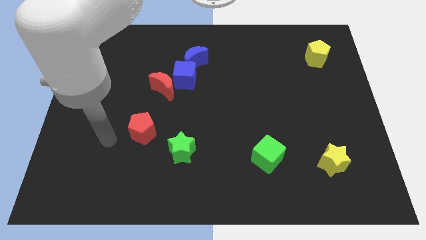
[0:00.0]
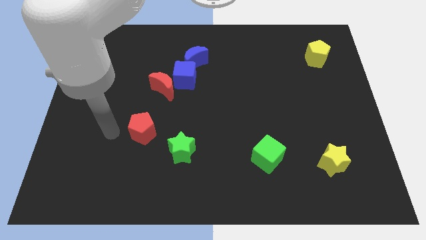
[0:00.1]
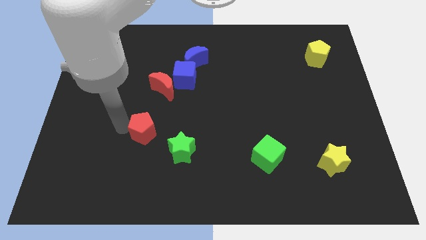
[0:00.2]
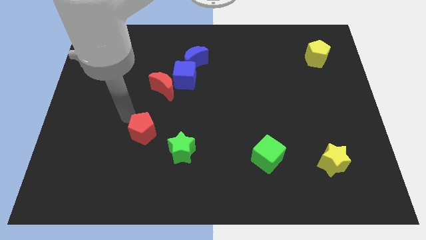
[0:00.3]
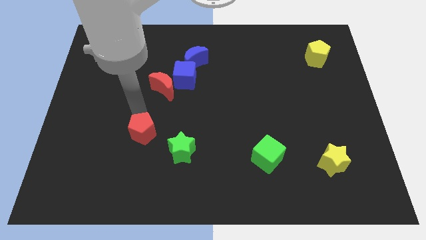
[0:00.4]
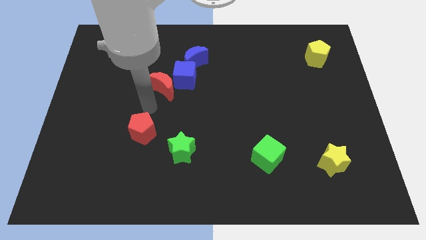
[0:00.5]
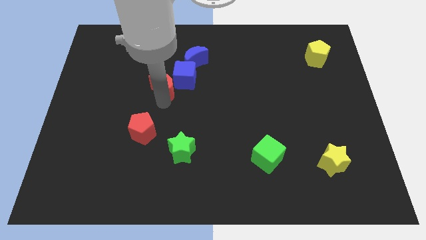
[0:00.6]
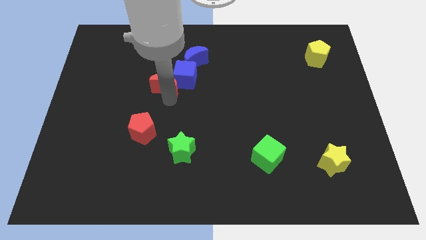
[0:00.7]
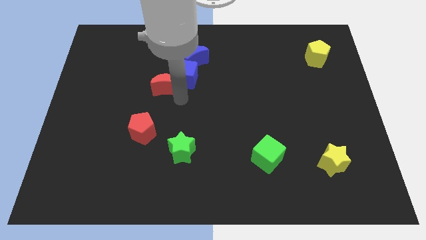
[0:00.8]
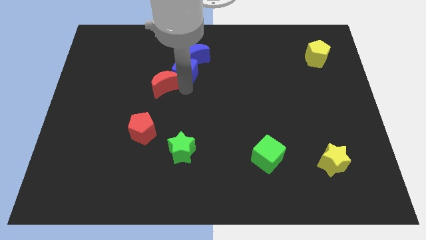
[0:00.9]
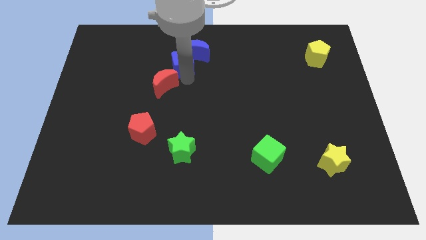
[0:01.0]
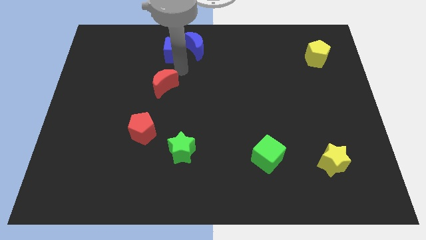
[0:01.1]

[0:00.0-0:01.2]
pull the red moon apart from the blue cube

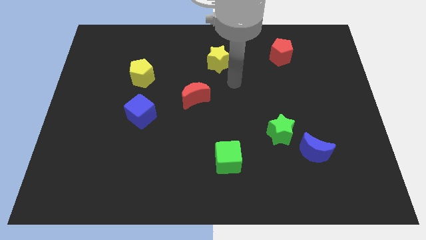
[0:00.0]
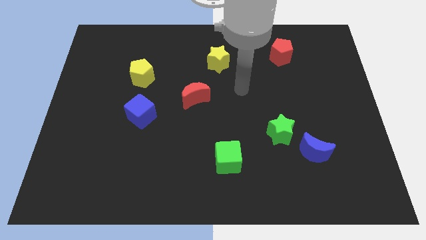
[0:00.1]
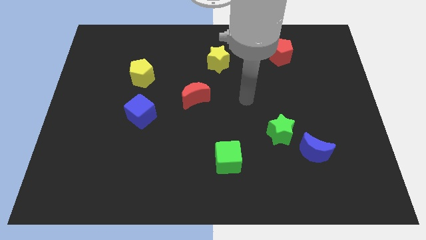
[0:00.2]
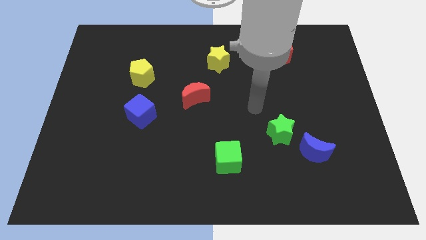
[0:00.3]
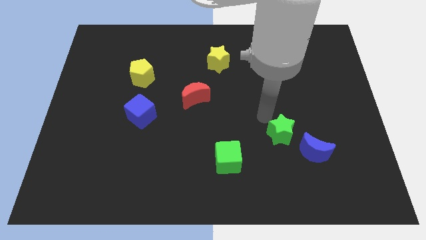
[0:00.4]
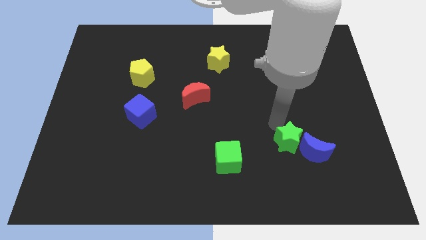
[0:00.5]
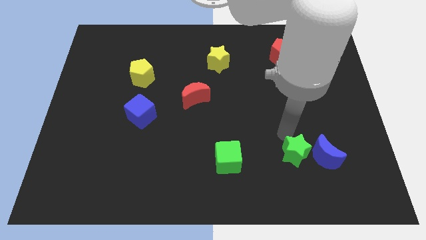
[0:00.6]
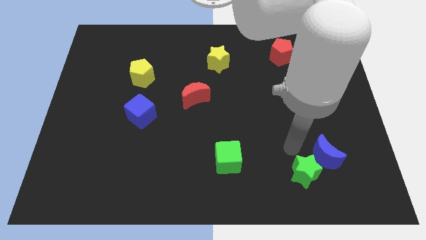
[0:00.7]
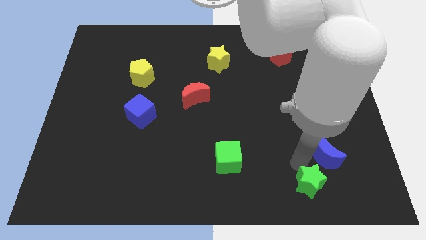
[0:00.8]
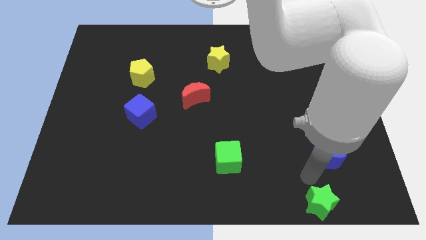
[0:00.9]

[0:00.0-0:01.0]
move the blue moon away from the green star

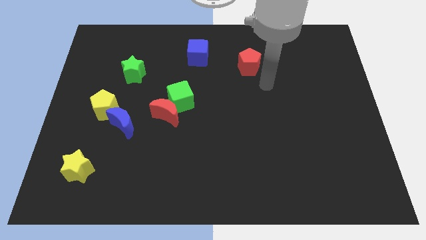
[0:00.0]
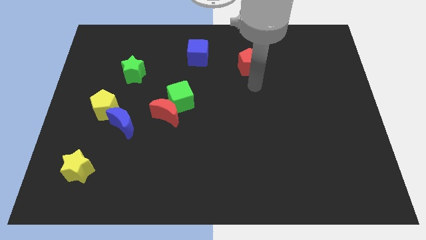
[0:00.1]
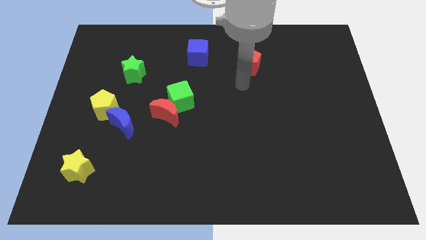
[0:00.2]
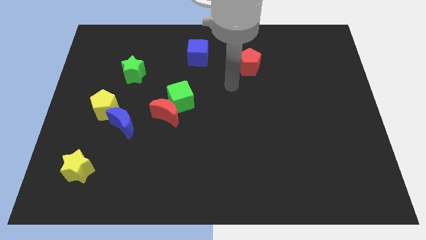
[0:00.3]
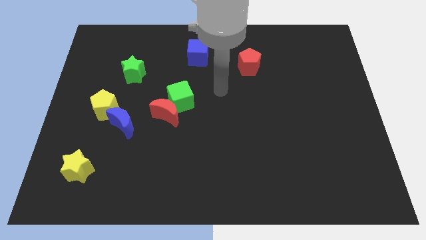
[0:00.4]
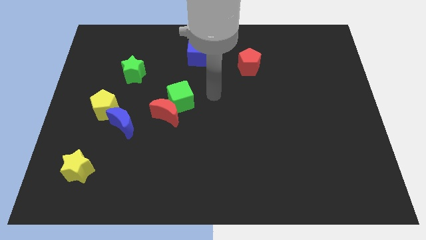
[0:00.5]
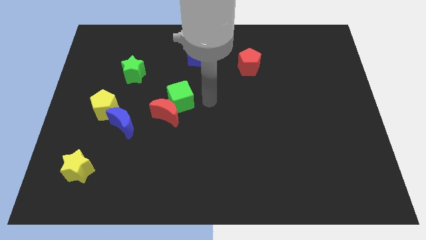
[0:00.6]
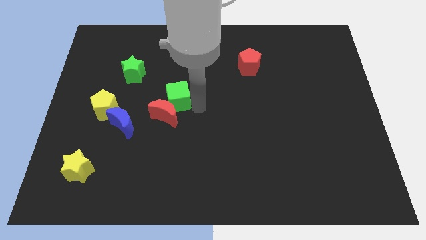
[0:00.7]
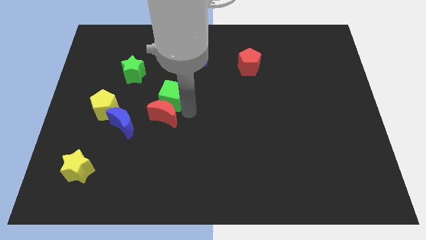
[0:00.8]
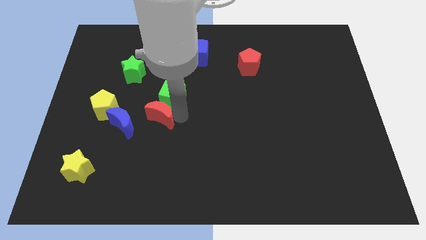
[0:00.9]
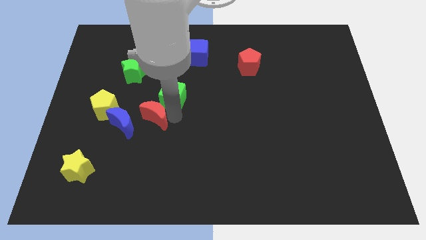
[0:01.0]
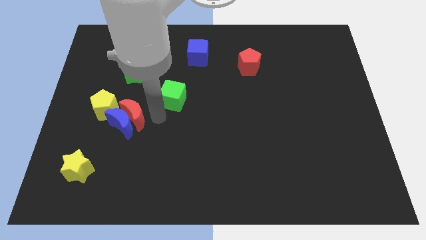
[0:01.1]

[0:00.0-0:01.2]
separate the green cube from the red moon

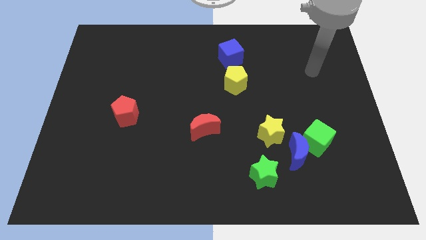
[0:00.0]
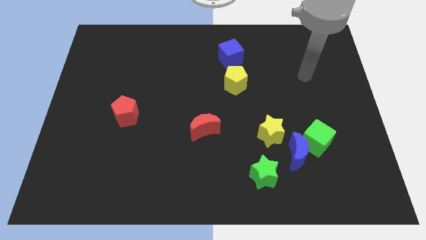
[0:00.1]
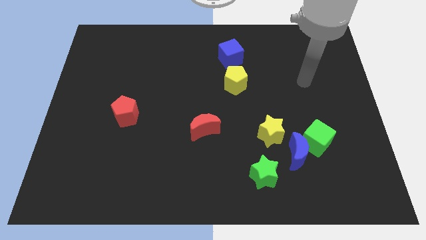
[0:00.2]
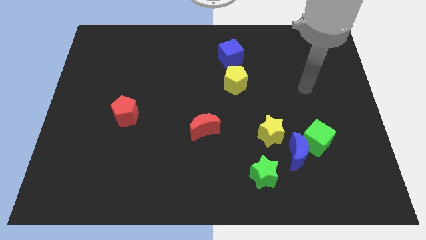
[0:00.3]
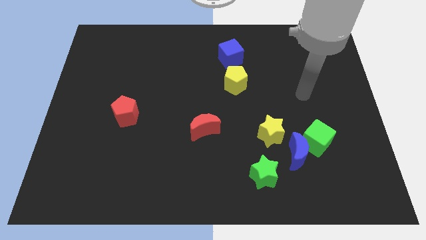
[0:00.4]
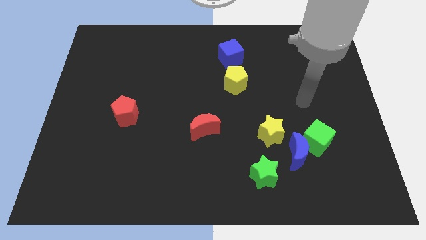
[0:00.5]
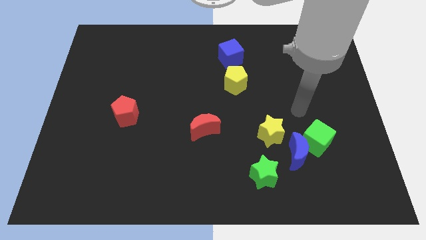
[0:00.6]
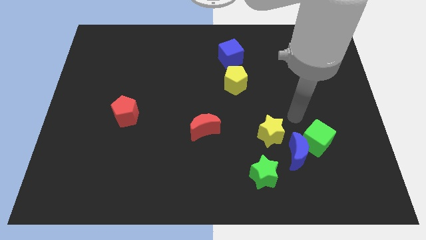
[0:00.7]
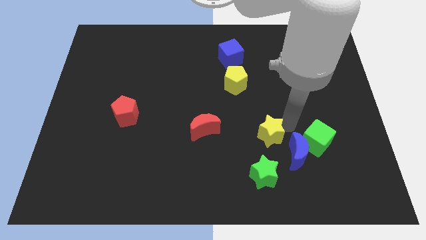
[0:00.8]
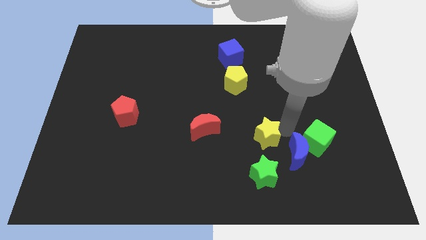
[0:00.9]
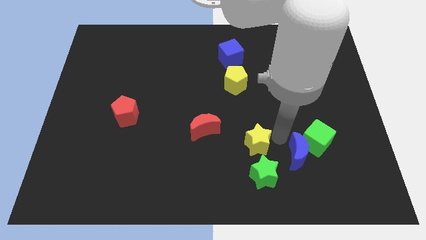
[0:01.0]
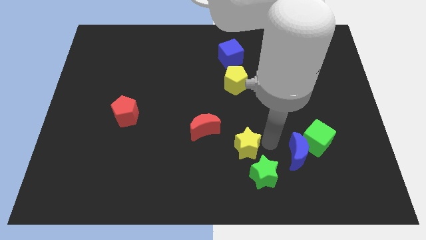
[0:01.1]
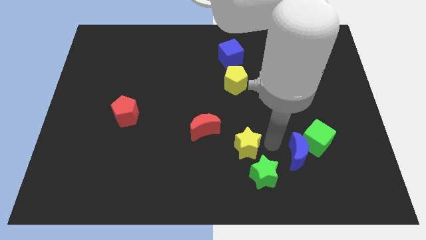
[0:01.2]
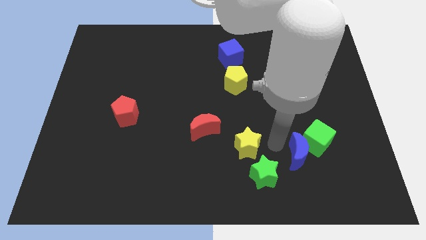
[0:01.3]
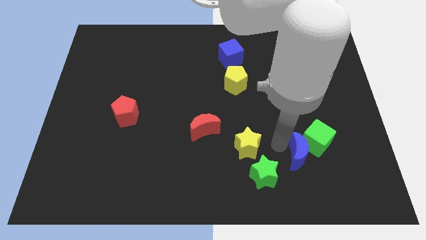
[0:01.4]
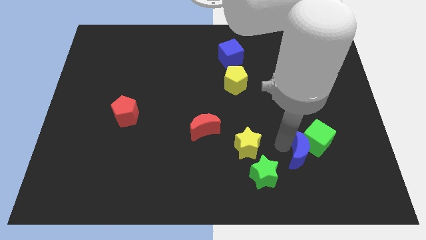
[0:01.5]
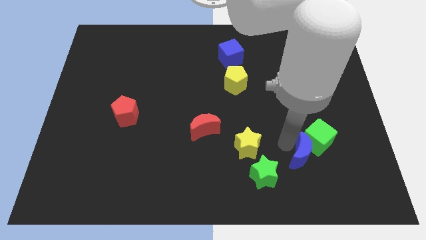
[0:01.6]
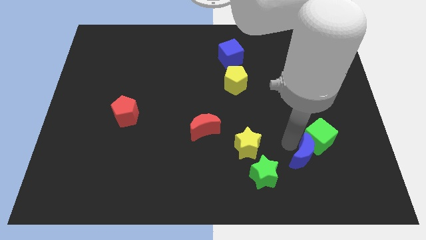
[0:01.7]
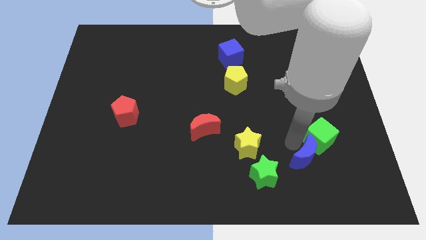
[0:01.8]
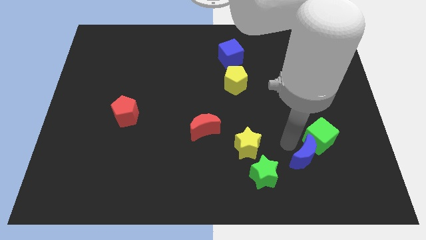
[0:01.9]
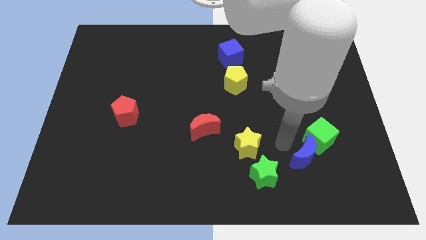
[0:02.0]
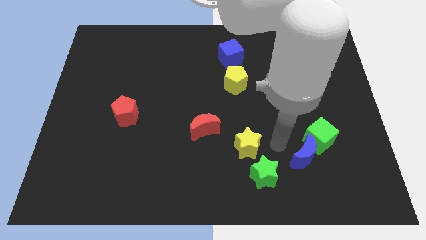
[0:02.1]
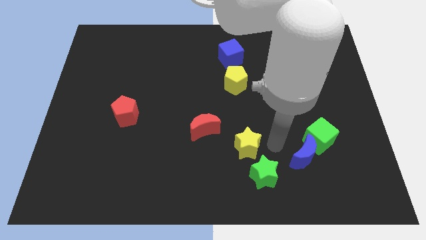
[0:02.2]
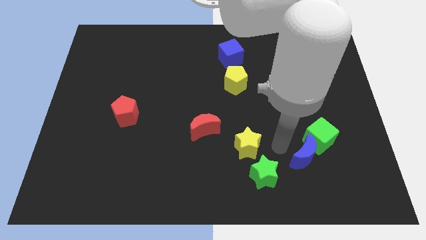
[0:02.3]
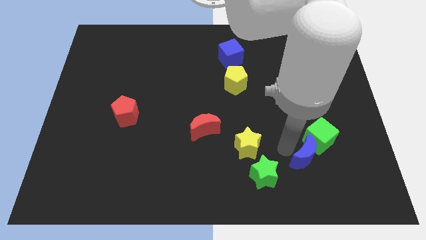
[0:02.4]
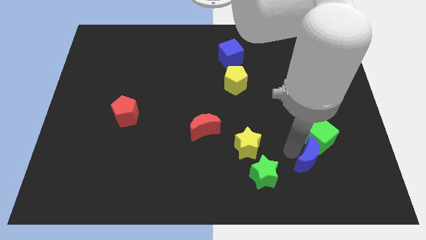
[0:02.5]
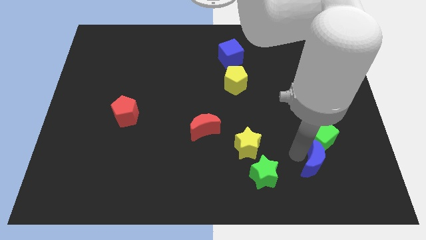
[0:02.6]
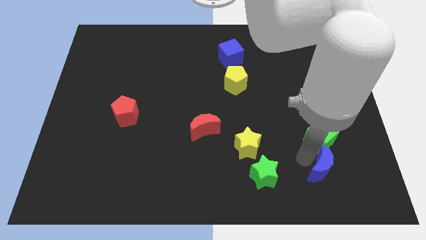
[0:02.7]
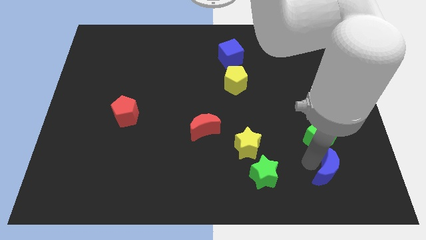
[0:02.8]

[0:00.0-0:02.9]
separate the blue moon from the clump

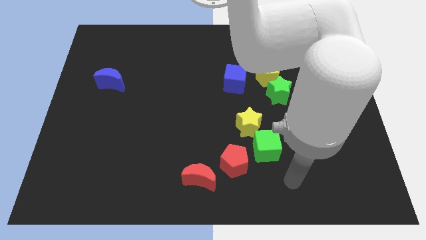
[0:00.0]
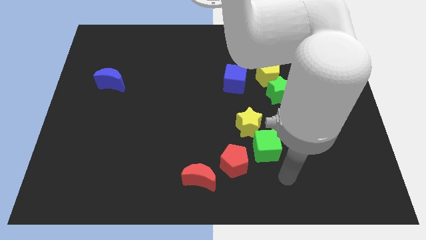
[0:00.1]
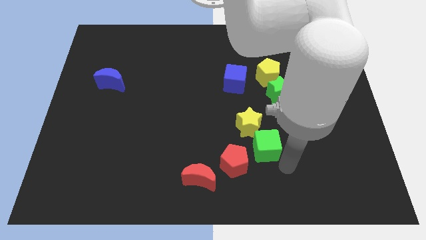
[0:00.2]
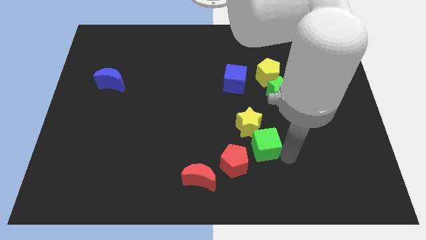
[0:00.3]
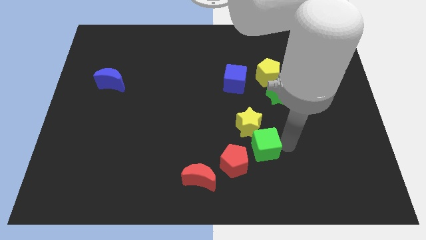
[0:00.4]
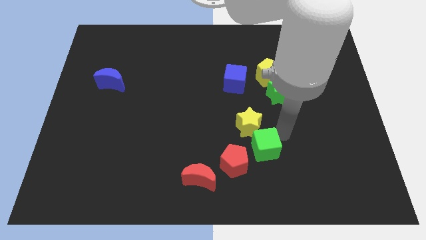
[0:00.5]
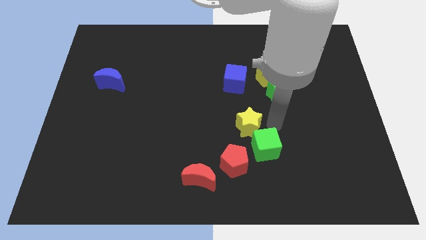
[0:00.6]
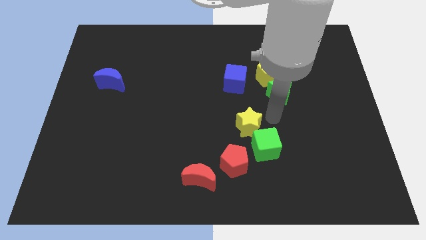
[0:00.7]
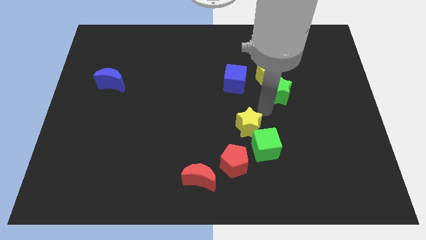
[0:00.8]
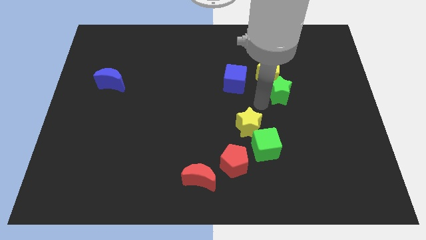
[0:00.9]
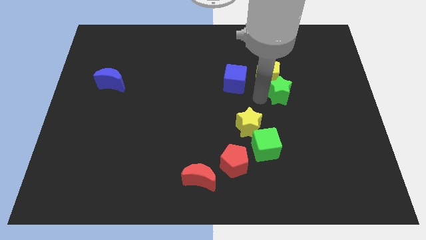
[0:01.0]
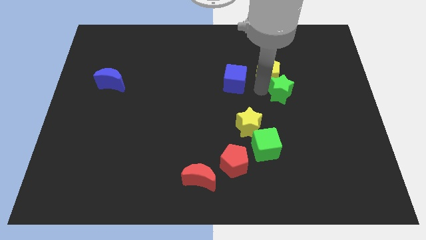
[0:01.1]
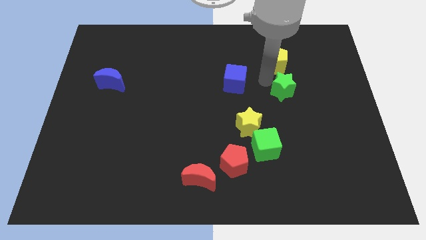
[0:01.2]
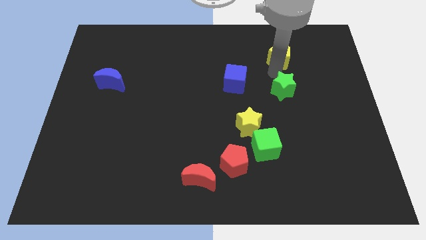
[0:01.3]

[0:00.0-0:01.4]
separate the green star from the yellow pentagon

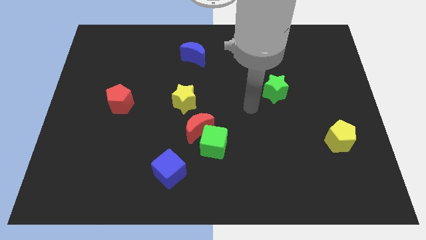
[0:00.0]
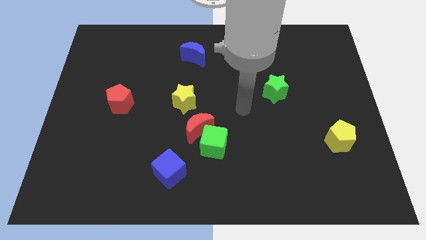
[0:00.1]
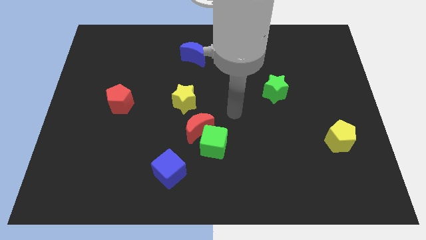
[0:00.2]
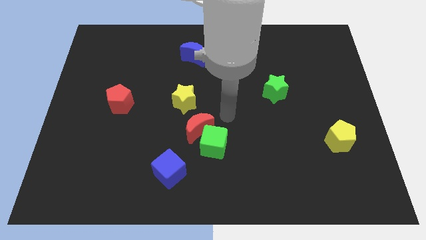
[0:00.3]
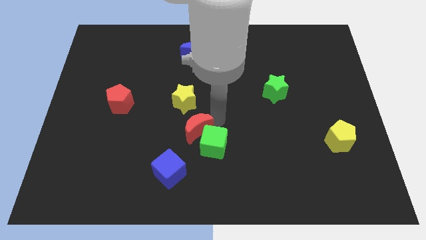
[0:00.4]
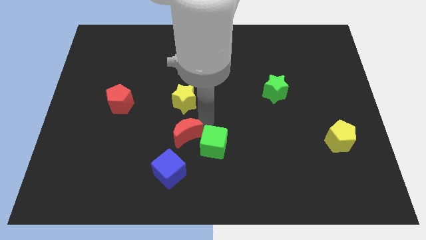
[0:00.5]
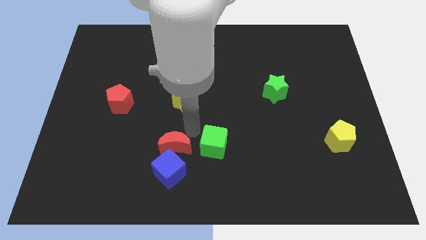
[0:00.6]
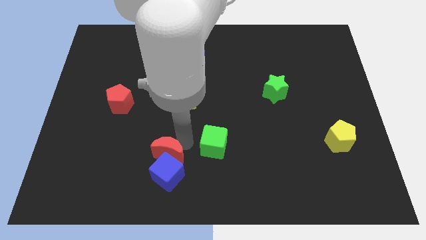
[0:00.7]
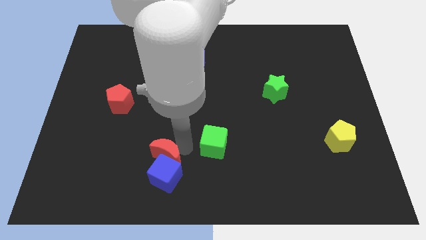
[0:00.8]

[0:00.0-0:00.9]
move the green cube away from the red moon

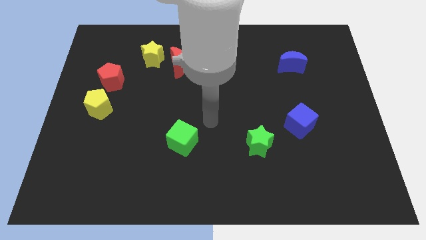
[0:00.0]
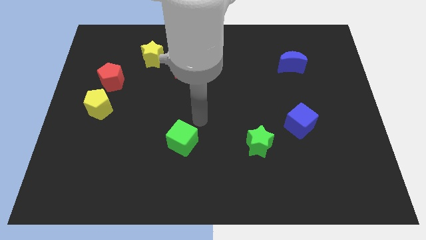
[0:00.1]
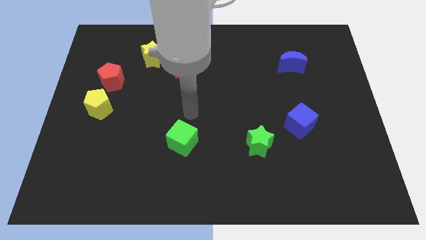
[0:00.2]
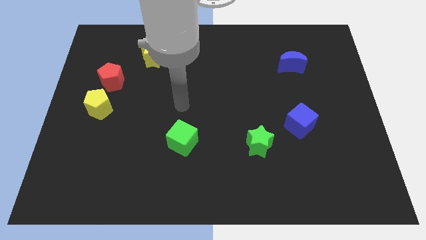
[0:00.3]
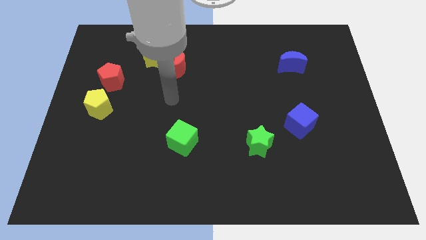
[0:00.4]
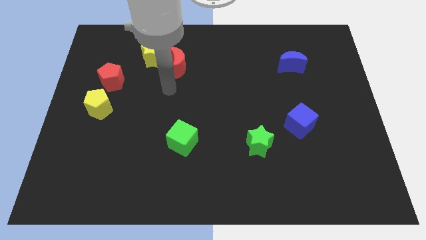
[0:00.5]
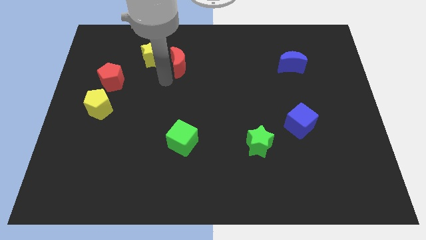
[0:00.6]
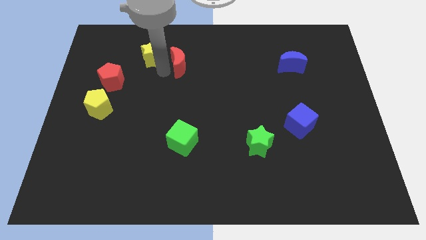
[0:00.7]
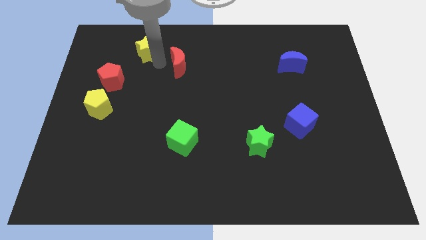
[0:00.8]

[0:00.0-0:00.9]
pull the red moon apart from the yellow star
